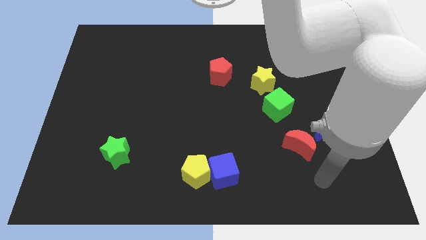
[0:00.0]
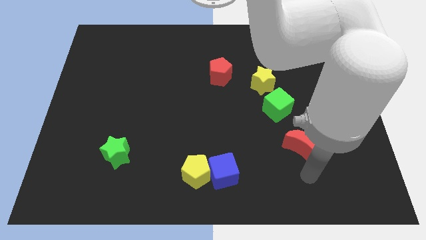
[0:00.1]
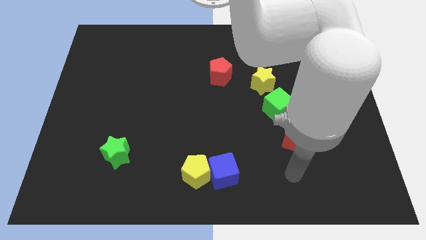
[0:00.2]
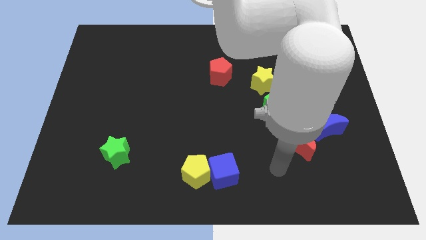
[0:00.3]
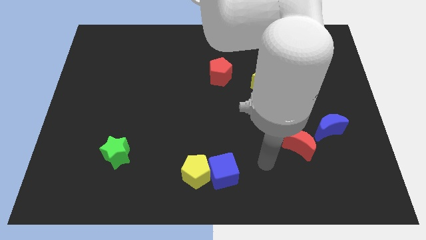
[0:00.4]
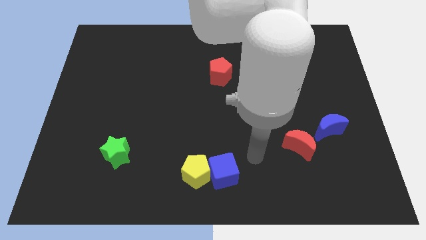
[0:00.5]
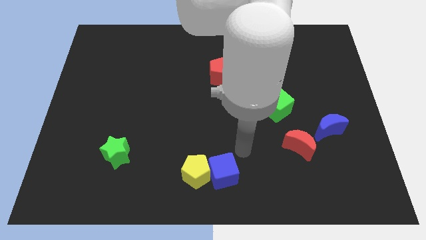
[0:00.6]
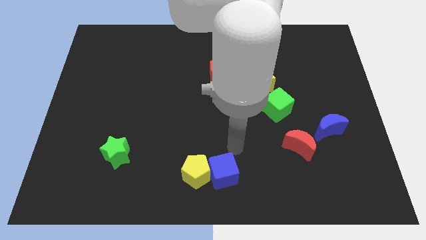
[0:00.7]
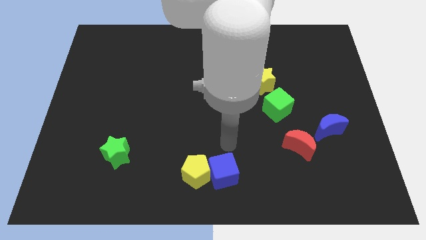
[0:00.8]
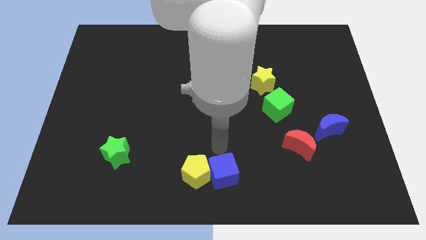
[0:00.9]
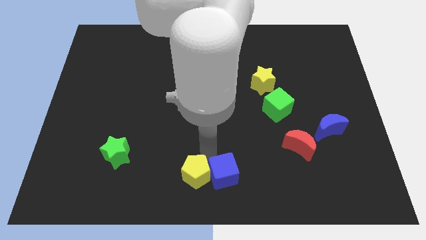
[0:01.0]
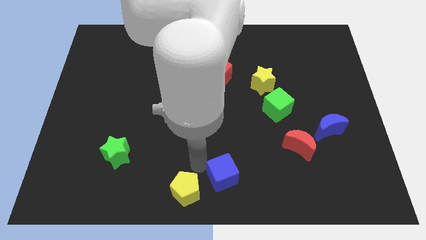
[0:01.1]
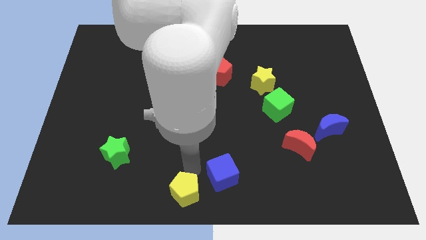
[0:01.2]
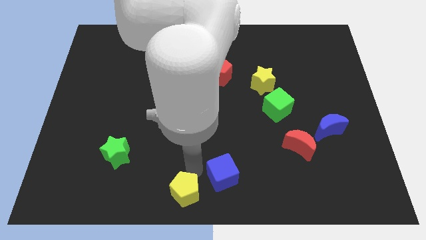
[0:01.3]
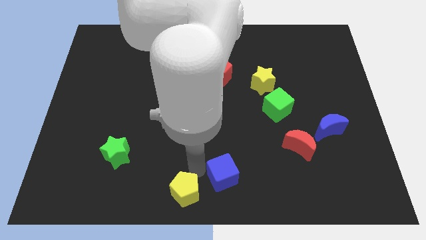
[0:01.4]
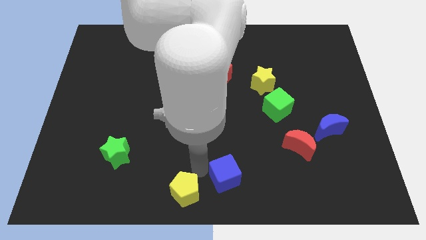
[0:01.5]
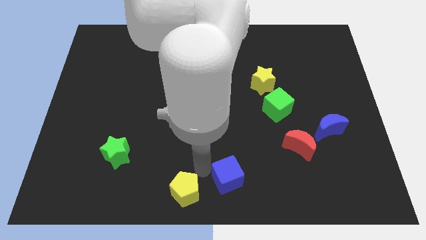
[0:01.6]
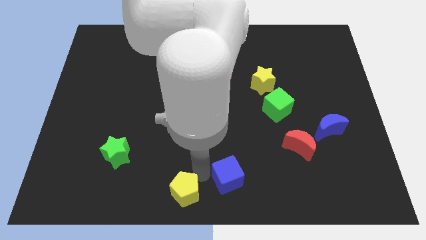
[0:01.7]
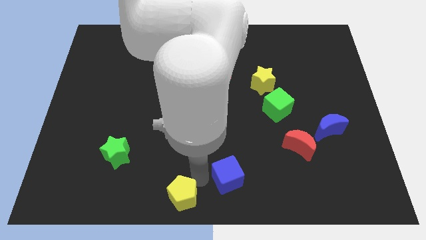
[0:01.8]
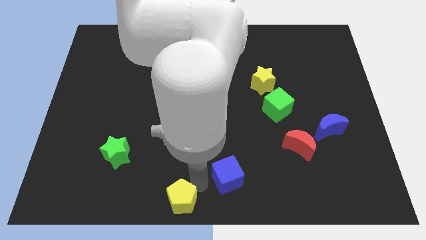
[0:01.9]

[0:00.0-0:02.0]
pull the blue cube apart from the yellow pentagon

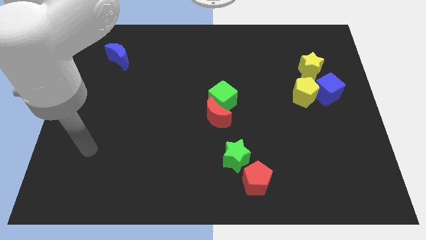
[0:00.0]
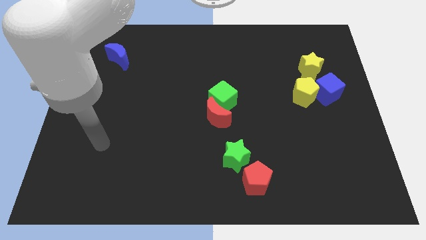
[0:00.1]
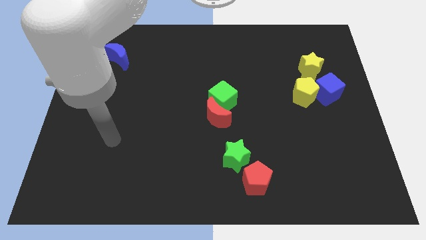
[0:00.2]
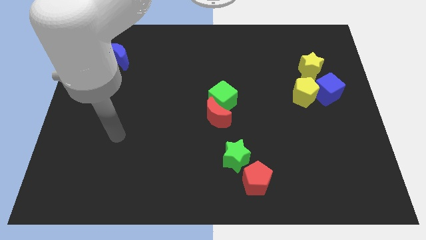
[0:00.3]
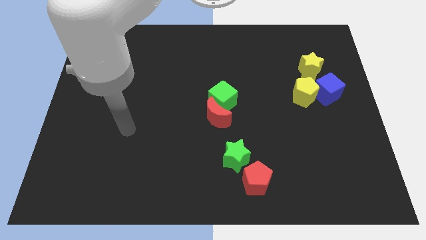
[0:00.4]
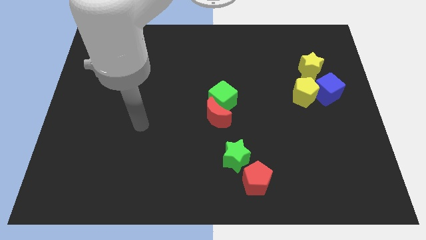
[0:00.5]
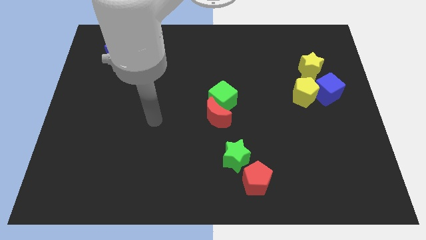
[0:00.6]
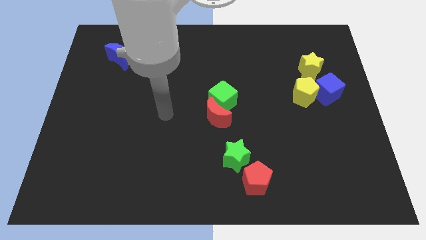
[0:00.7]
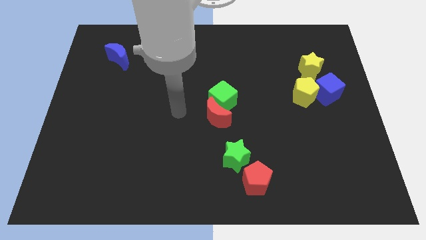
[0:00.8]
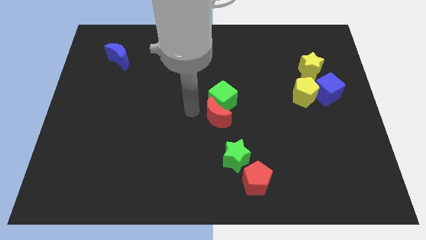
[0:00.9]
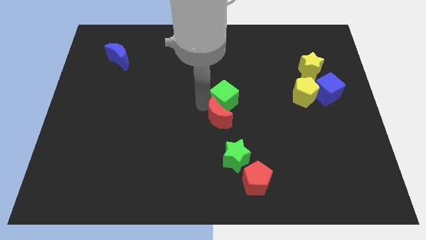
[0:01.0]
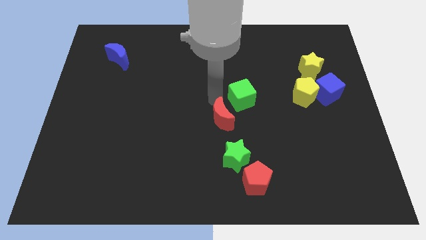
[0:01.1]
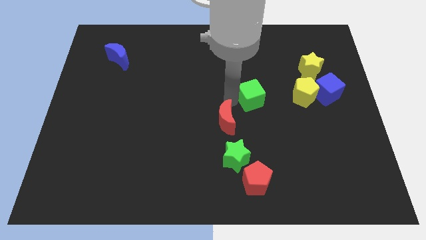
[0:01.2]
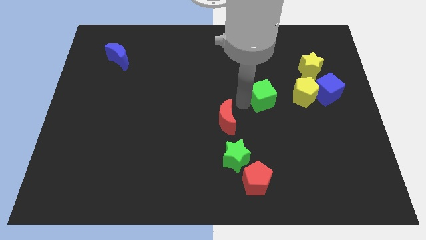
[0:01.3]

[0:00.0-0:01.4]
move the red moon away from the green cube

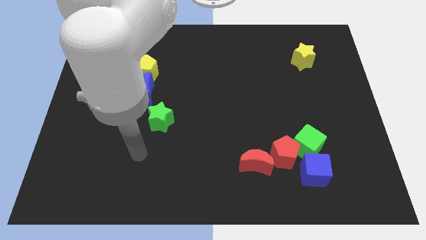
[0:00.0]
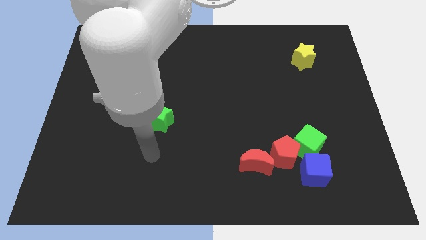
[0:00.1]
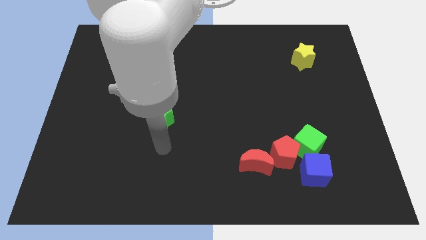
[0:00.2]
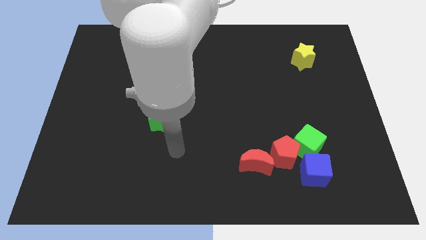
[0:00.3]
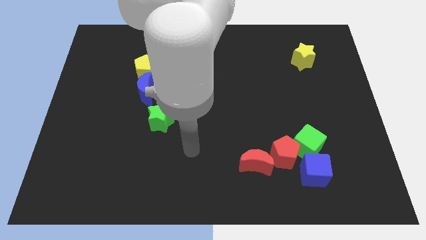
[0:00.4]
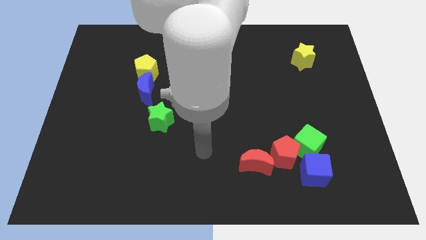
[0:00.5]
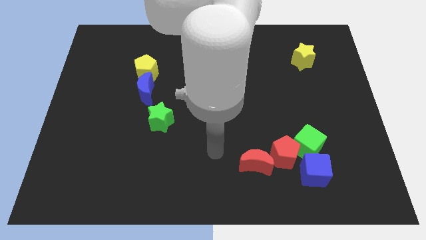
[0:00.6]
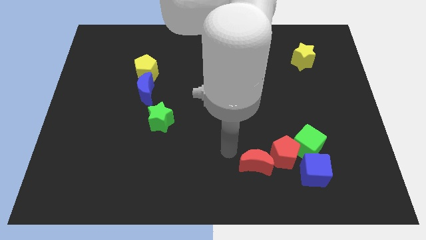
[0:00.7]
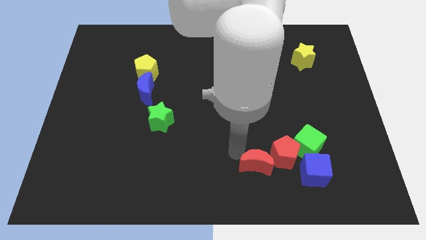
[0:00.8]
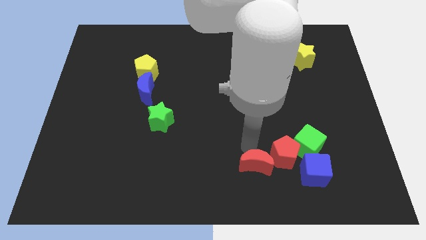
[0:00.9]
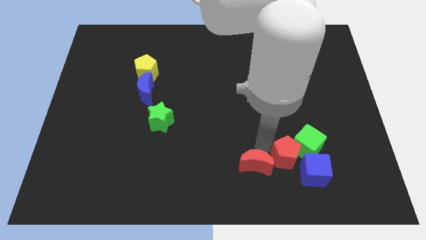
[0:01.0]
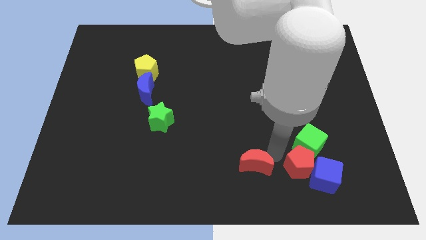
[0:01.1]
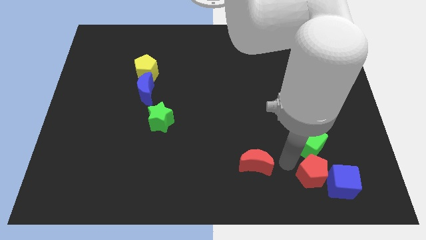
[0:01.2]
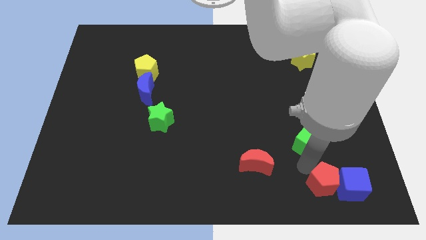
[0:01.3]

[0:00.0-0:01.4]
move the green cube away from the red pentagon and blue cube

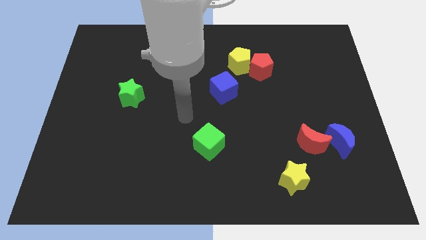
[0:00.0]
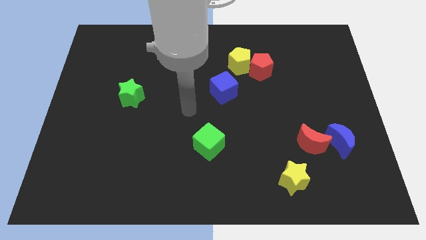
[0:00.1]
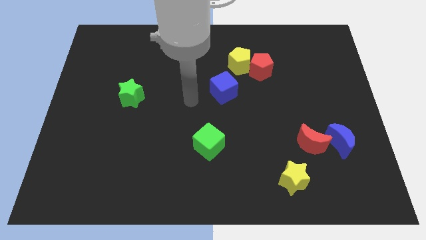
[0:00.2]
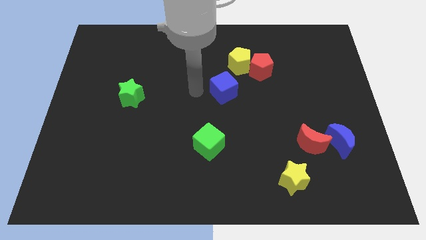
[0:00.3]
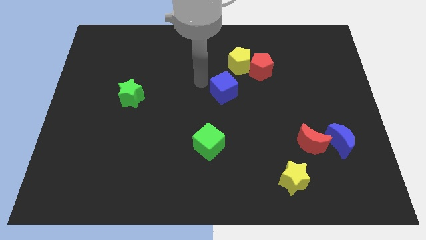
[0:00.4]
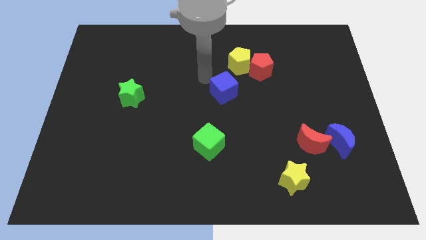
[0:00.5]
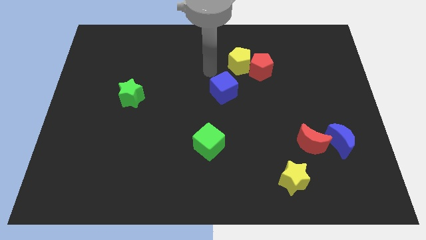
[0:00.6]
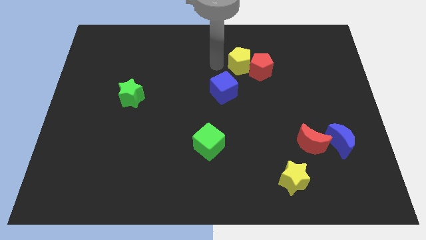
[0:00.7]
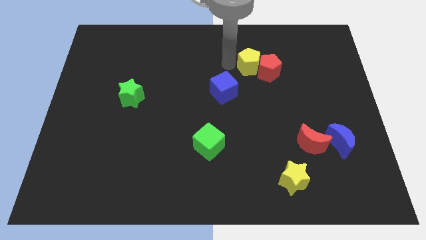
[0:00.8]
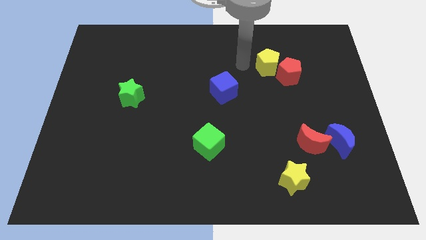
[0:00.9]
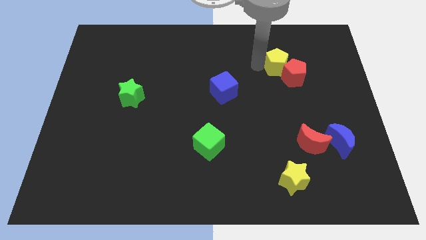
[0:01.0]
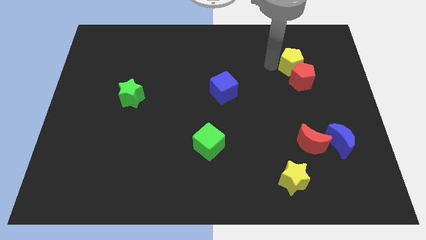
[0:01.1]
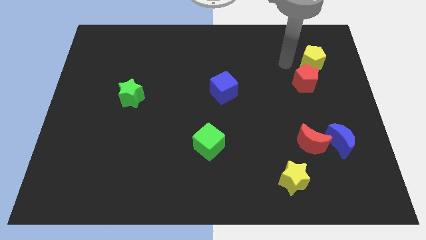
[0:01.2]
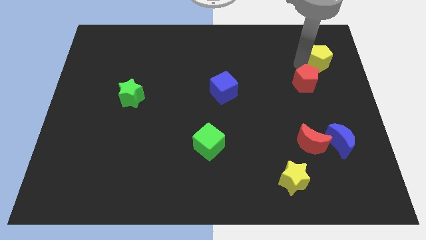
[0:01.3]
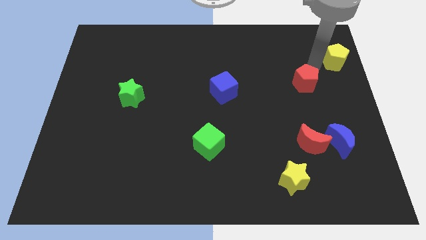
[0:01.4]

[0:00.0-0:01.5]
separate the red pentagon from the yellow pentagon

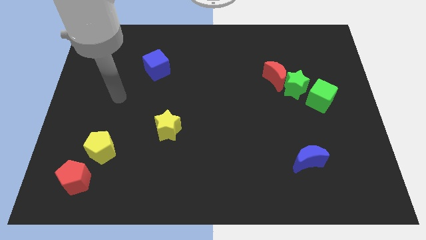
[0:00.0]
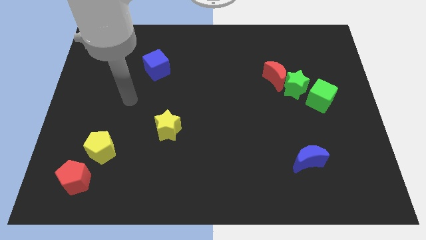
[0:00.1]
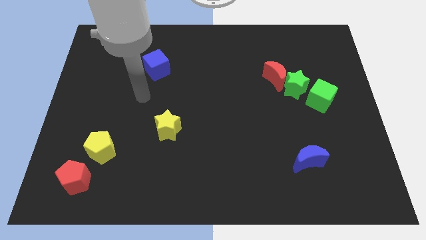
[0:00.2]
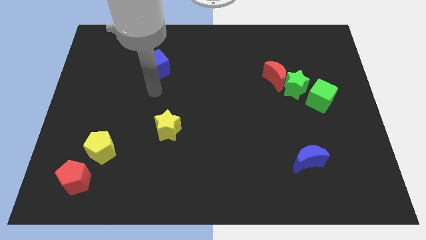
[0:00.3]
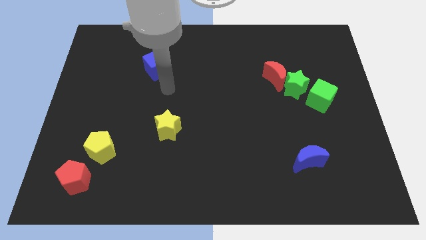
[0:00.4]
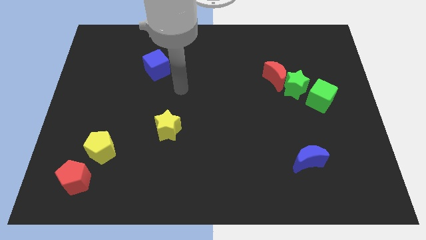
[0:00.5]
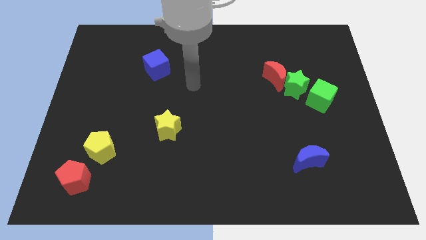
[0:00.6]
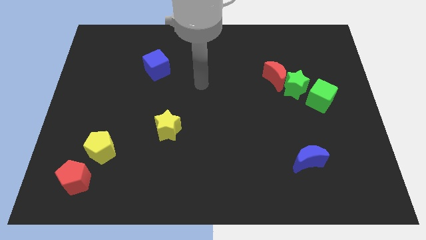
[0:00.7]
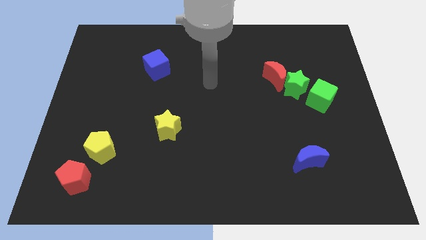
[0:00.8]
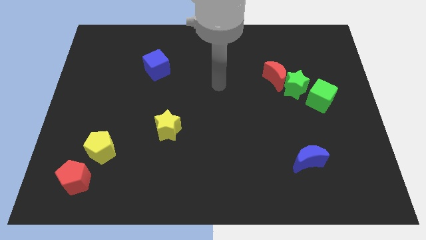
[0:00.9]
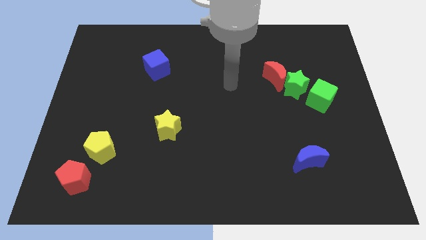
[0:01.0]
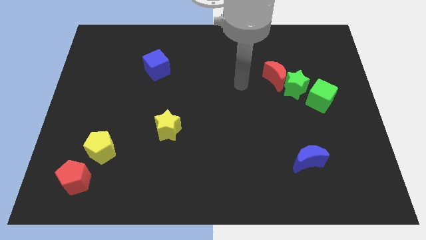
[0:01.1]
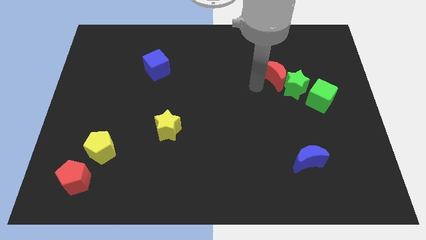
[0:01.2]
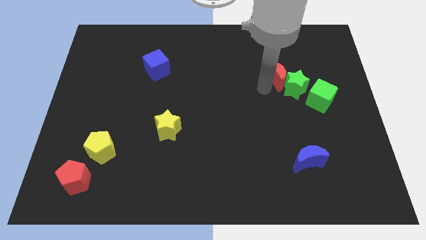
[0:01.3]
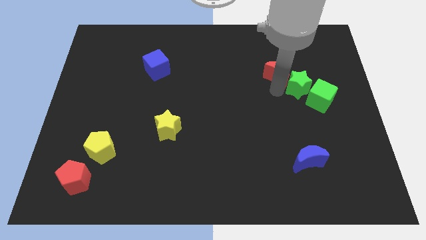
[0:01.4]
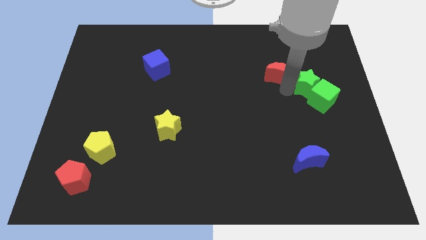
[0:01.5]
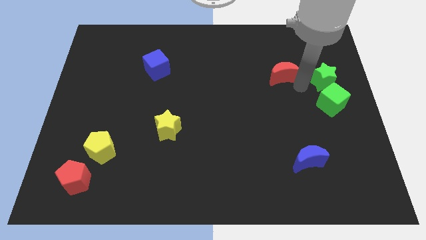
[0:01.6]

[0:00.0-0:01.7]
separate the red moon from the green star

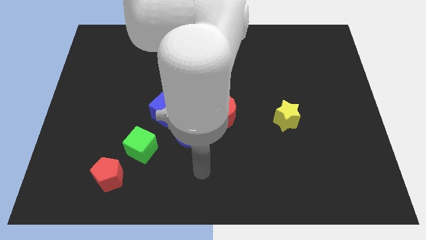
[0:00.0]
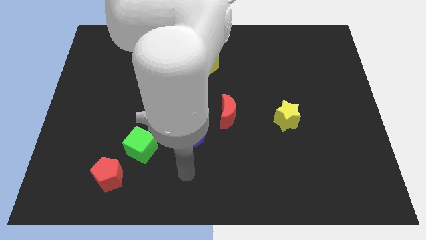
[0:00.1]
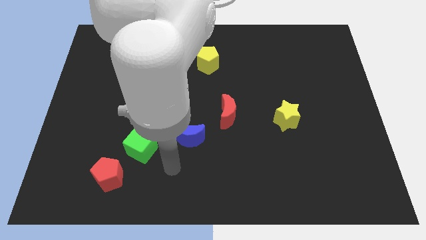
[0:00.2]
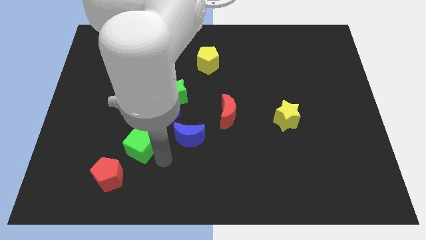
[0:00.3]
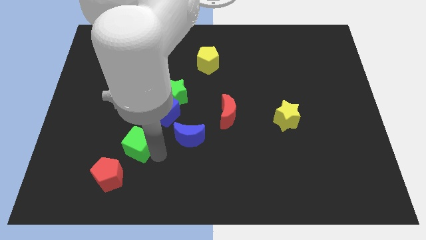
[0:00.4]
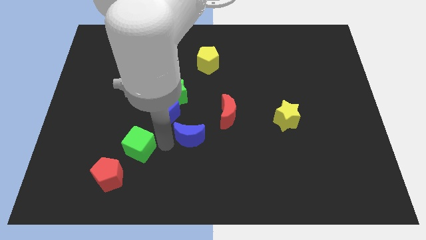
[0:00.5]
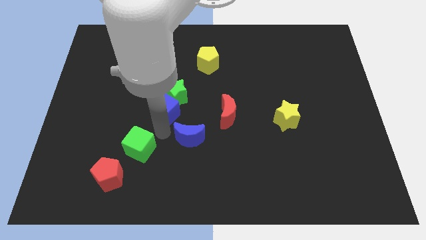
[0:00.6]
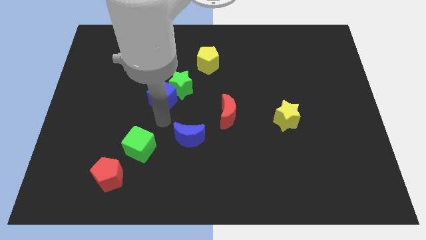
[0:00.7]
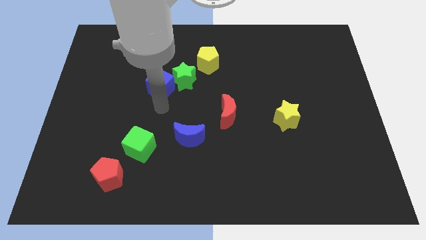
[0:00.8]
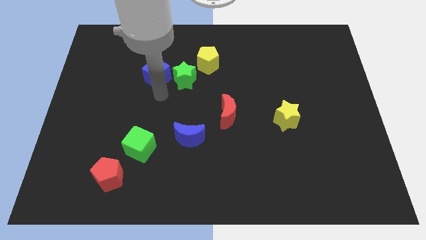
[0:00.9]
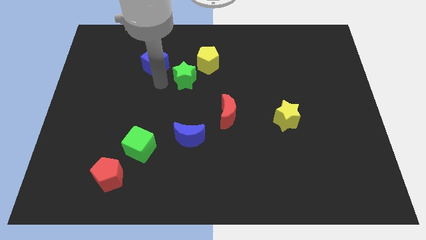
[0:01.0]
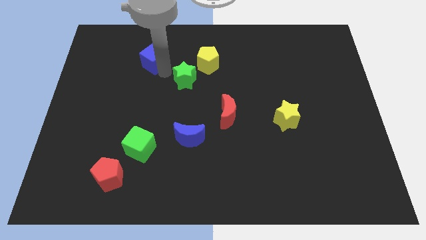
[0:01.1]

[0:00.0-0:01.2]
pull the green star apart from the blue cube

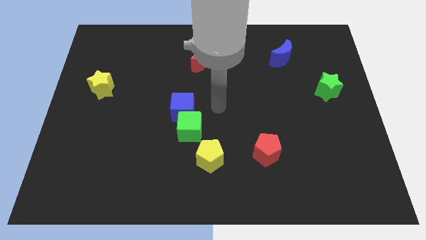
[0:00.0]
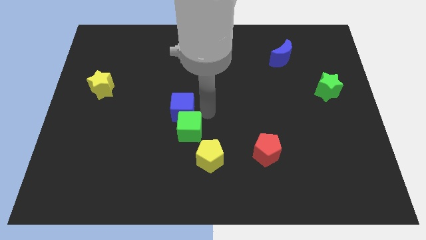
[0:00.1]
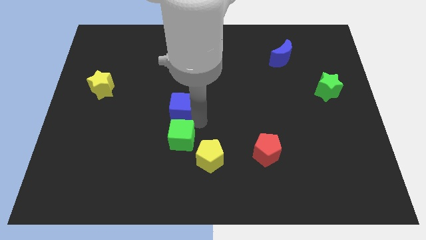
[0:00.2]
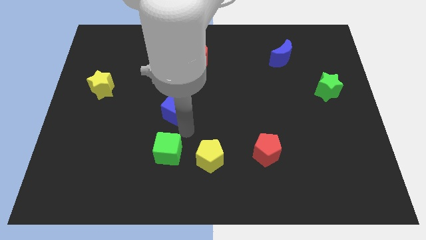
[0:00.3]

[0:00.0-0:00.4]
separate the blue cube from the green cube
